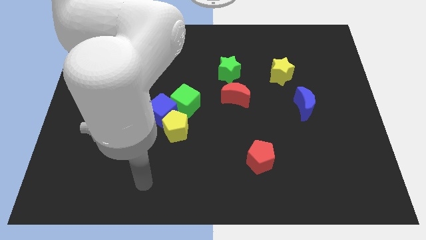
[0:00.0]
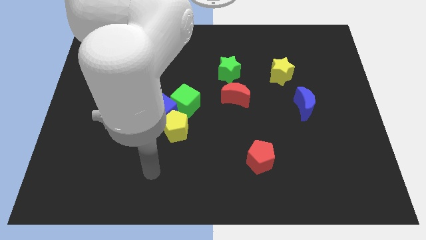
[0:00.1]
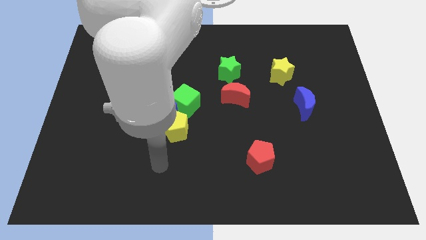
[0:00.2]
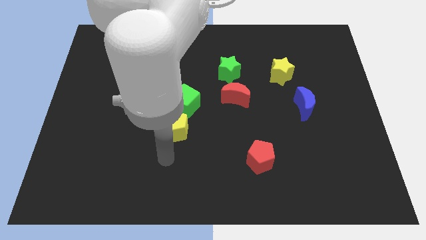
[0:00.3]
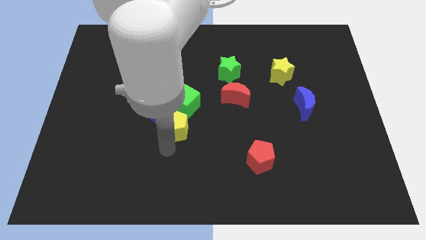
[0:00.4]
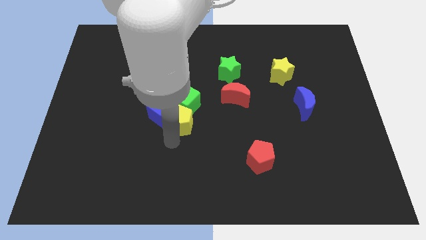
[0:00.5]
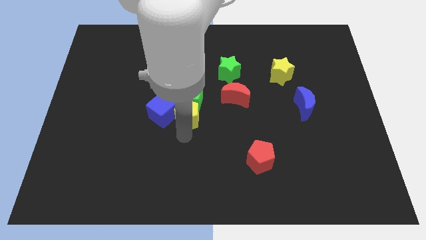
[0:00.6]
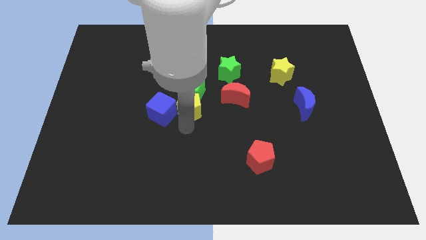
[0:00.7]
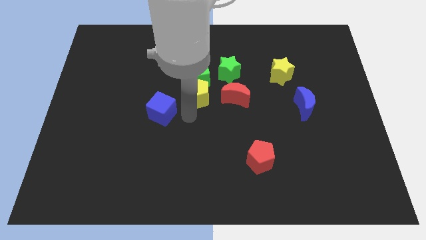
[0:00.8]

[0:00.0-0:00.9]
separate the blue cube from the yellow pentagon and green cube

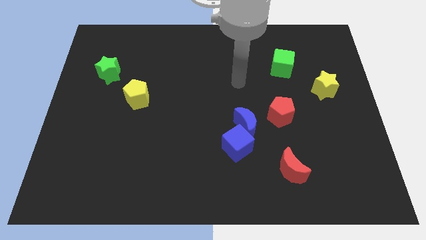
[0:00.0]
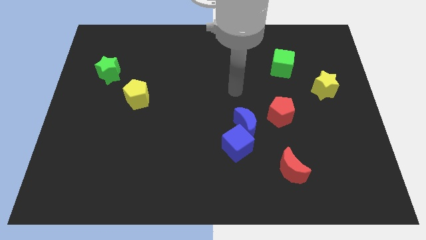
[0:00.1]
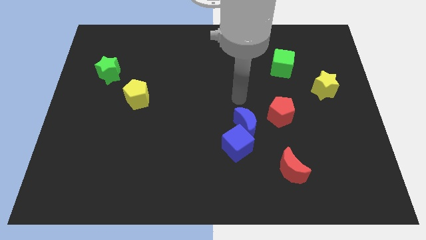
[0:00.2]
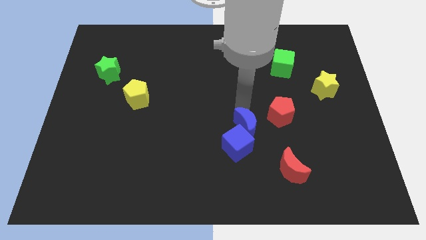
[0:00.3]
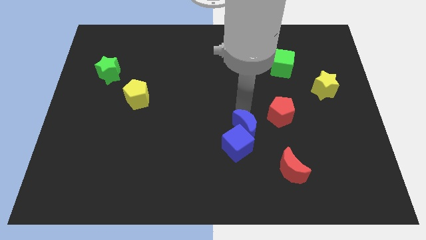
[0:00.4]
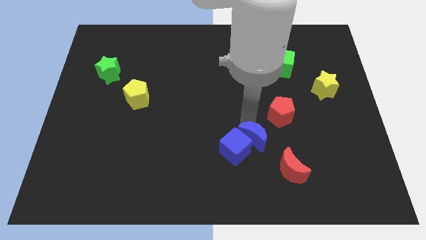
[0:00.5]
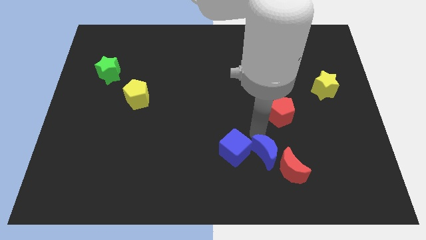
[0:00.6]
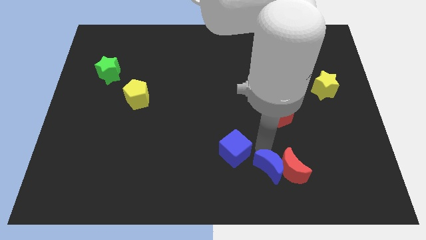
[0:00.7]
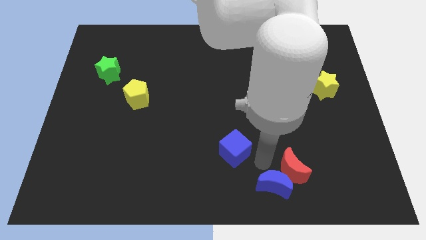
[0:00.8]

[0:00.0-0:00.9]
separate the blue cube from the blue moon

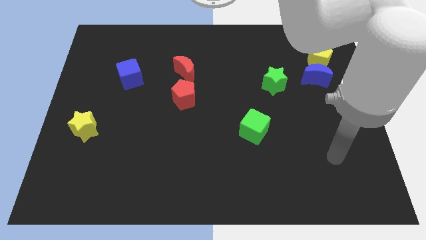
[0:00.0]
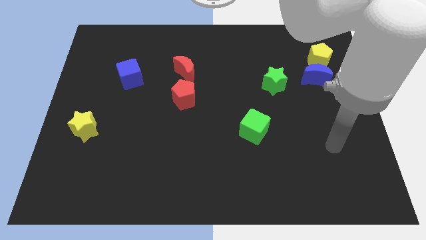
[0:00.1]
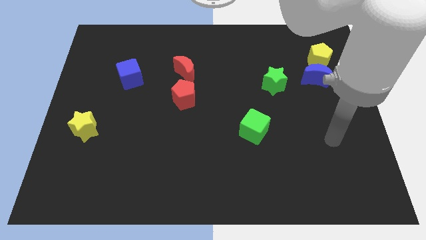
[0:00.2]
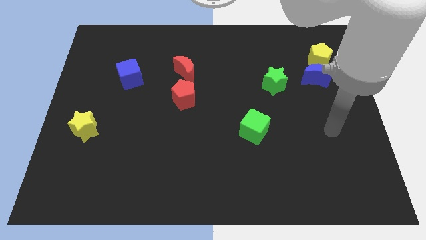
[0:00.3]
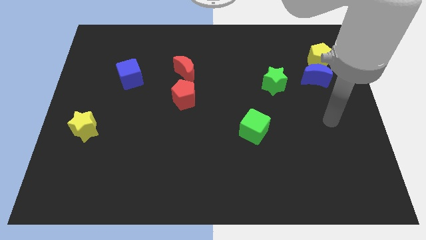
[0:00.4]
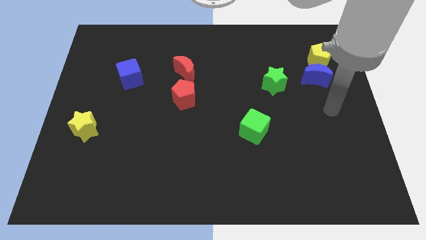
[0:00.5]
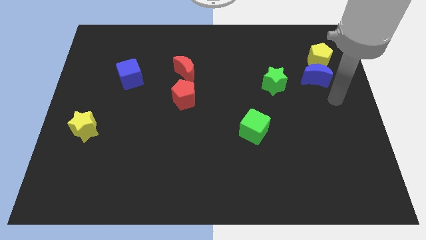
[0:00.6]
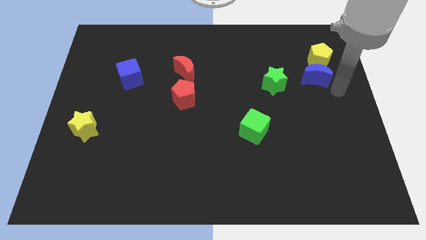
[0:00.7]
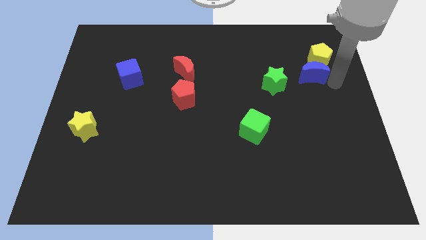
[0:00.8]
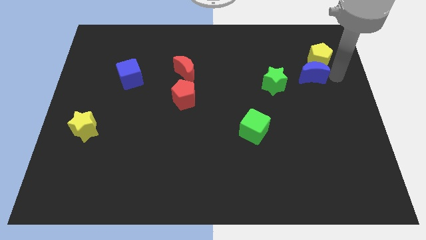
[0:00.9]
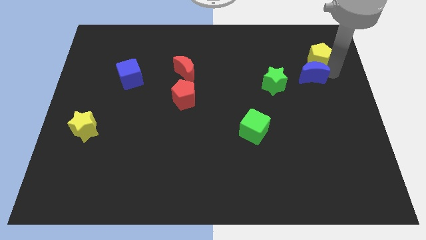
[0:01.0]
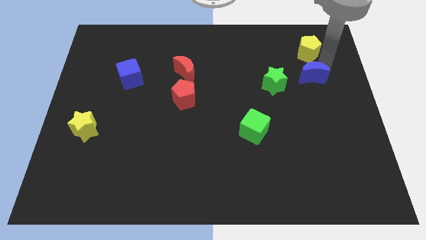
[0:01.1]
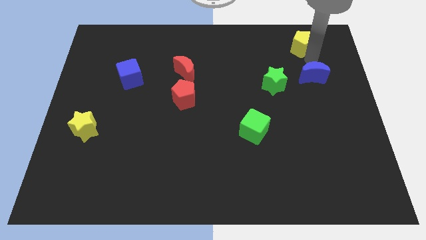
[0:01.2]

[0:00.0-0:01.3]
move the blue moon away from the yellow pentagon

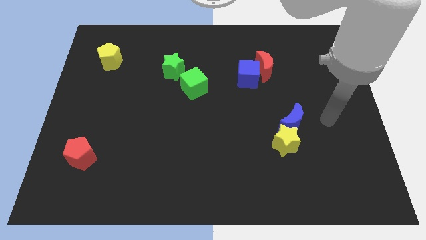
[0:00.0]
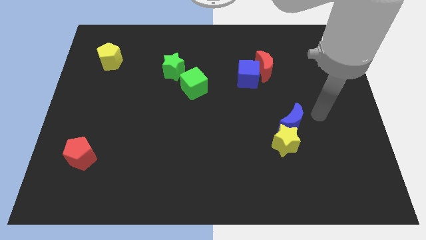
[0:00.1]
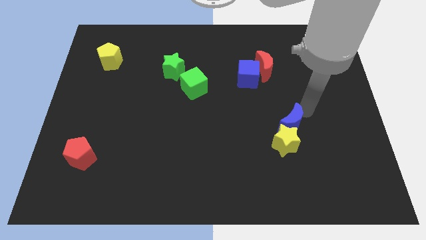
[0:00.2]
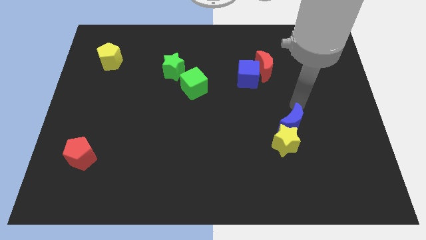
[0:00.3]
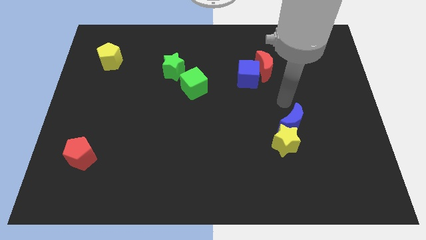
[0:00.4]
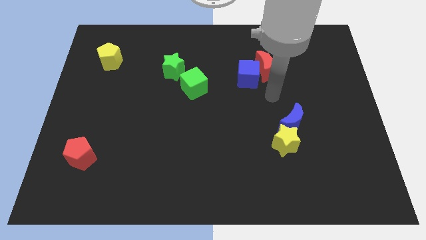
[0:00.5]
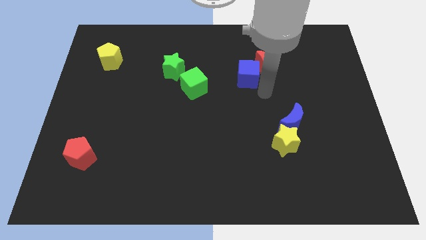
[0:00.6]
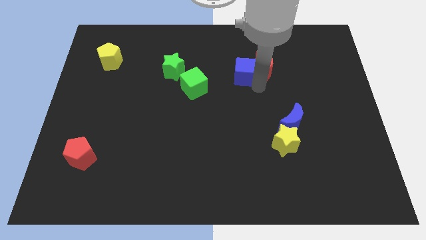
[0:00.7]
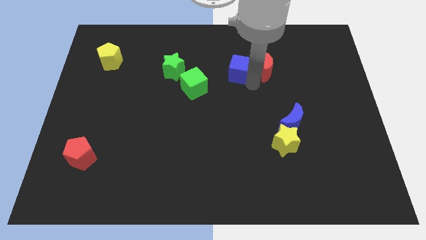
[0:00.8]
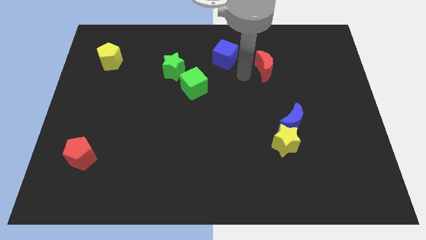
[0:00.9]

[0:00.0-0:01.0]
pull the red moon apart from the blue cube

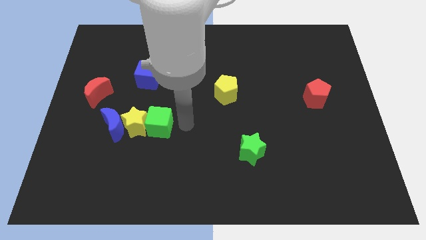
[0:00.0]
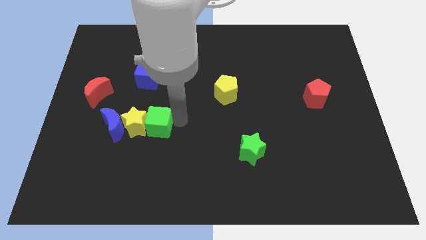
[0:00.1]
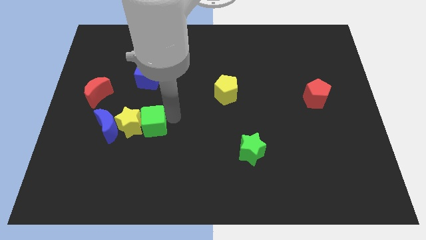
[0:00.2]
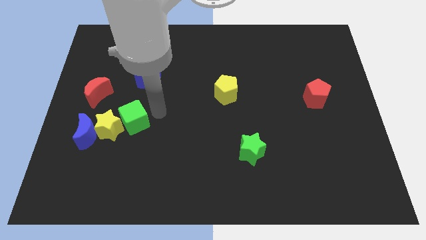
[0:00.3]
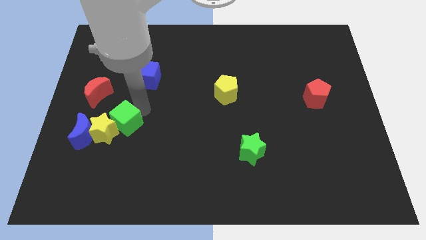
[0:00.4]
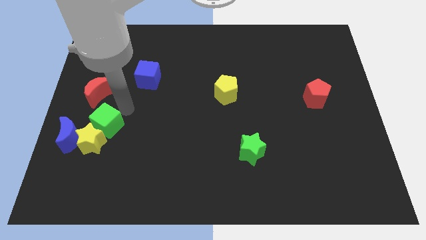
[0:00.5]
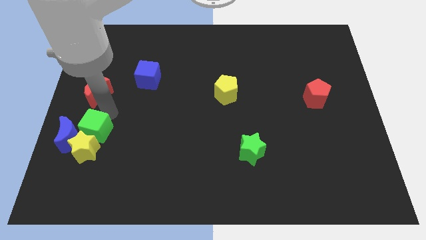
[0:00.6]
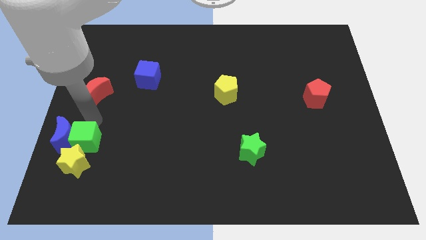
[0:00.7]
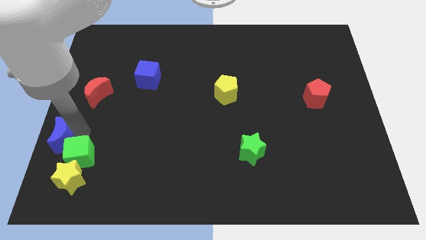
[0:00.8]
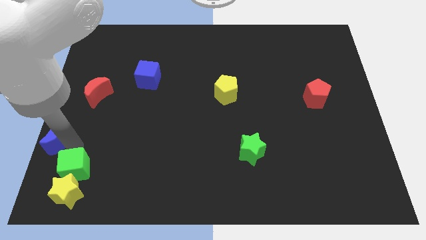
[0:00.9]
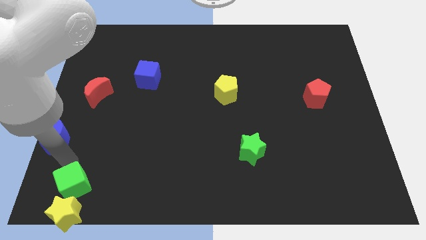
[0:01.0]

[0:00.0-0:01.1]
move the yellow star away from the blue moon and green cube

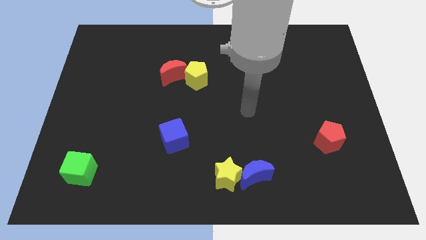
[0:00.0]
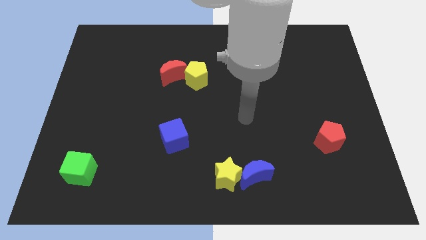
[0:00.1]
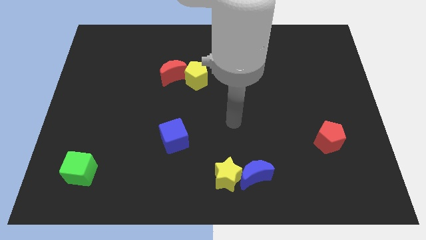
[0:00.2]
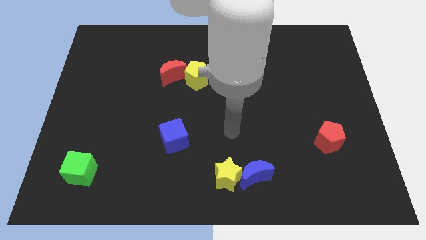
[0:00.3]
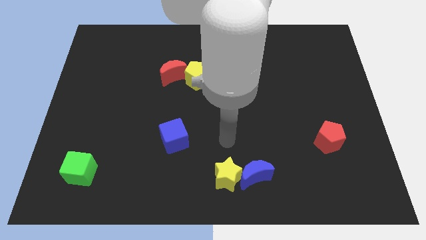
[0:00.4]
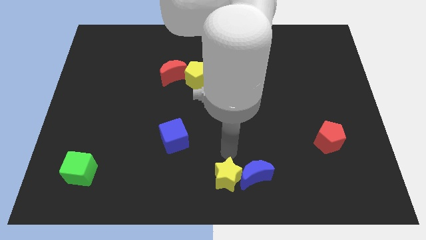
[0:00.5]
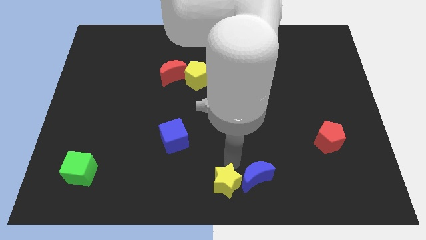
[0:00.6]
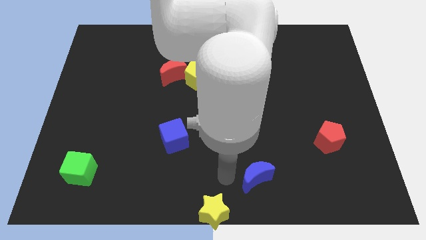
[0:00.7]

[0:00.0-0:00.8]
separate the blue moon from the yellow star

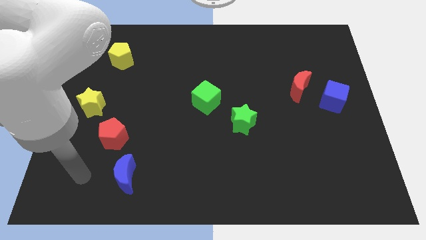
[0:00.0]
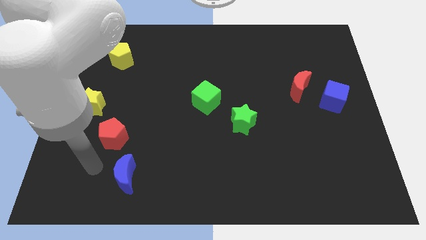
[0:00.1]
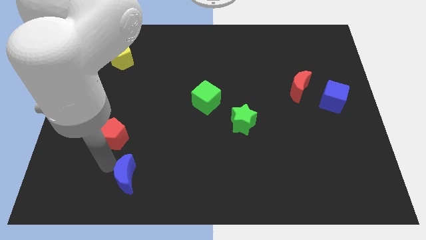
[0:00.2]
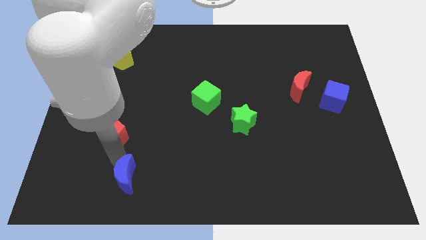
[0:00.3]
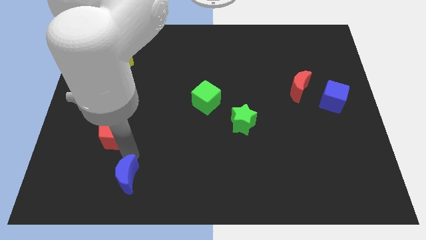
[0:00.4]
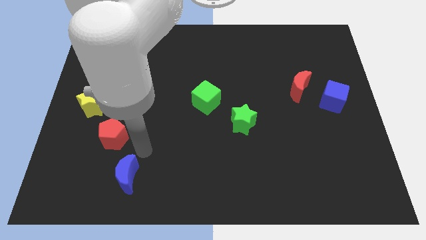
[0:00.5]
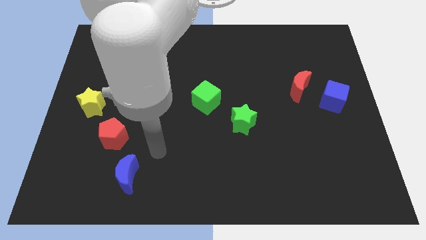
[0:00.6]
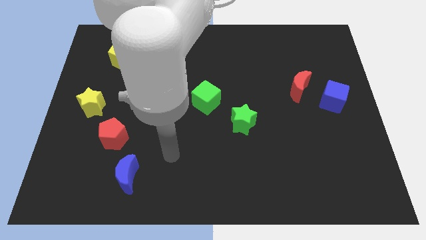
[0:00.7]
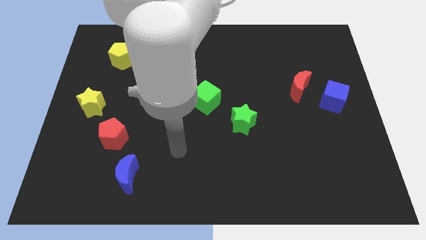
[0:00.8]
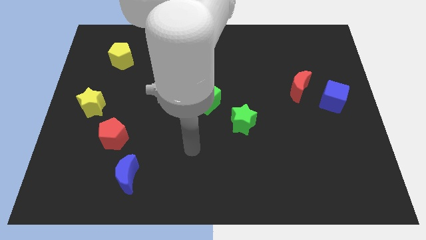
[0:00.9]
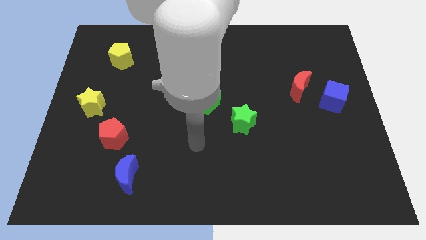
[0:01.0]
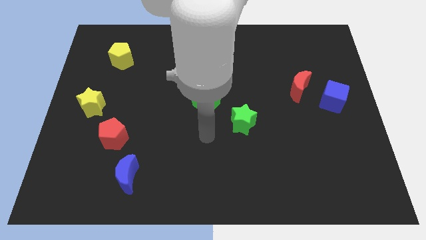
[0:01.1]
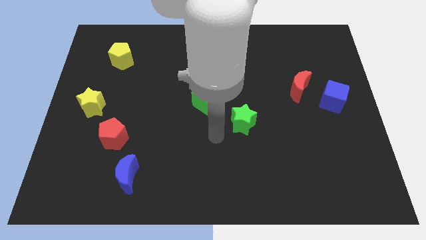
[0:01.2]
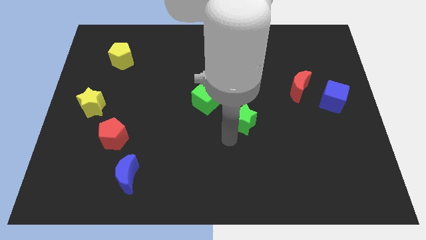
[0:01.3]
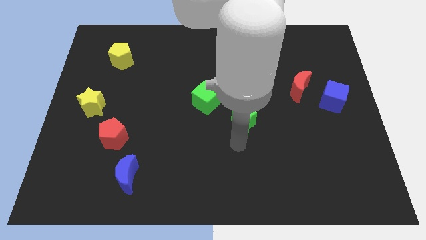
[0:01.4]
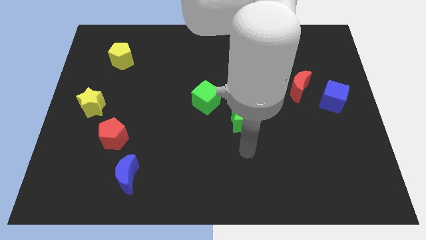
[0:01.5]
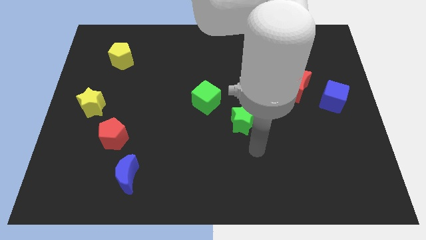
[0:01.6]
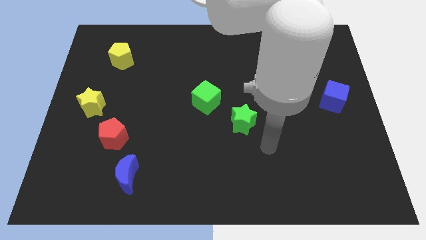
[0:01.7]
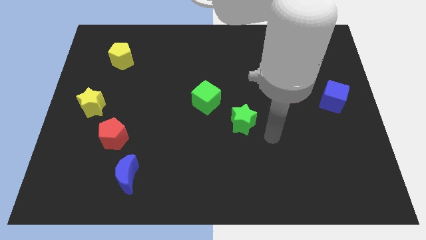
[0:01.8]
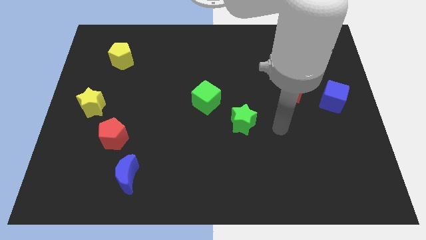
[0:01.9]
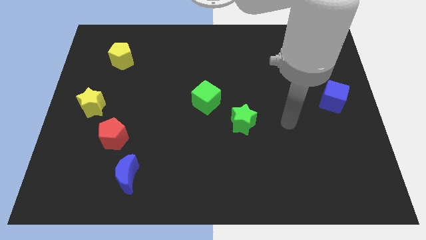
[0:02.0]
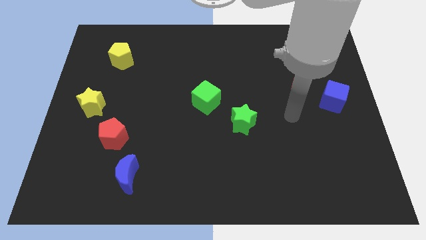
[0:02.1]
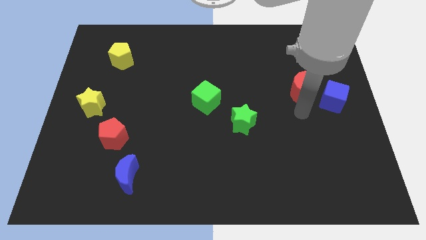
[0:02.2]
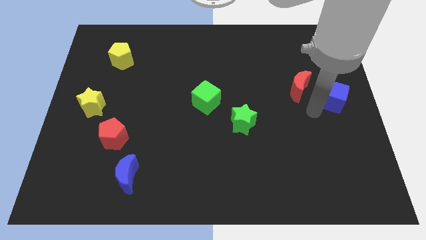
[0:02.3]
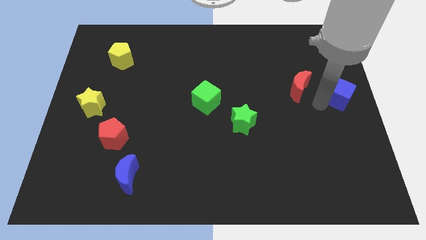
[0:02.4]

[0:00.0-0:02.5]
move the red moon away from the blue cube

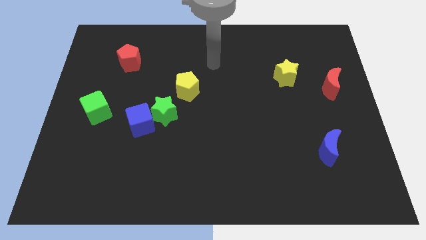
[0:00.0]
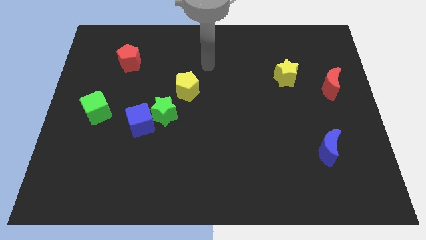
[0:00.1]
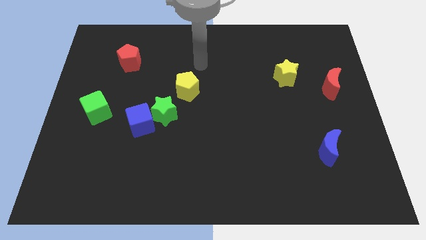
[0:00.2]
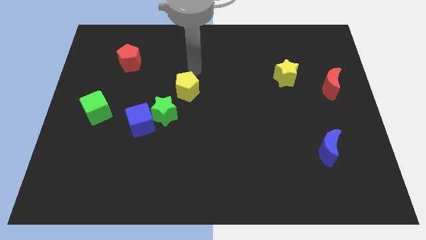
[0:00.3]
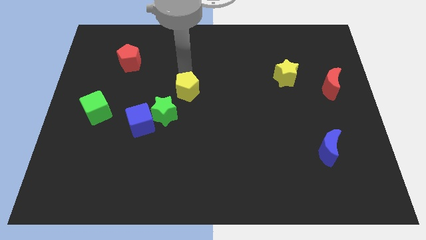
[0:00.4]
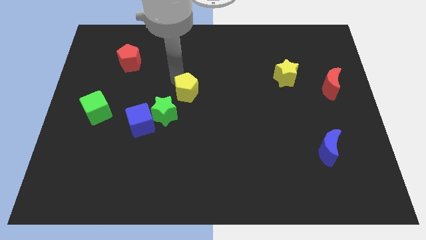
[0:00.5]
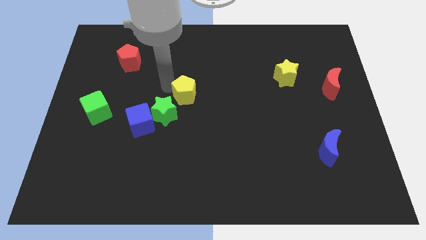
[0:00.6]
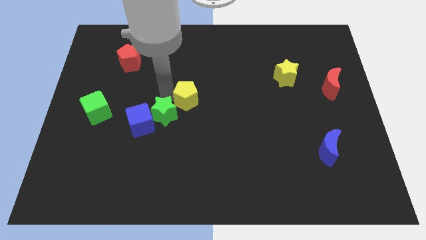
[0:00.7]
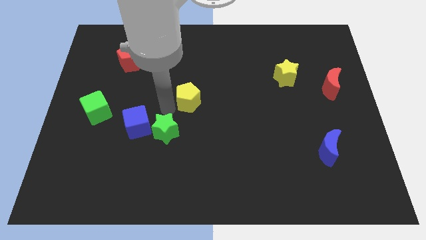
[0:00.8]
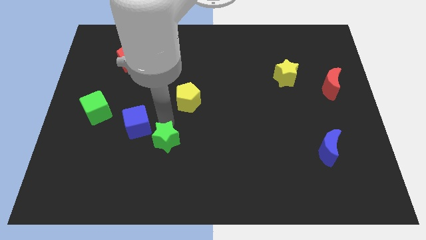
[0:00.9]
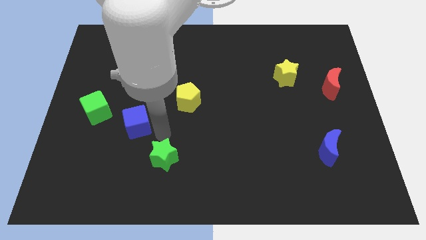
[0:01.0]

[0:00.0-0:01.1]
move the blue cube away from the green star
